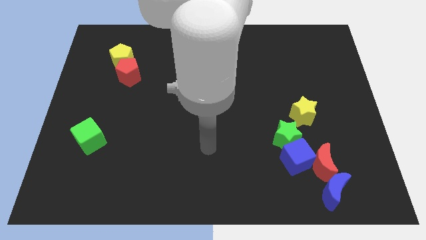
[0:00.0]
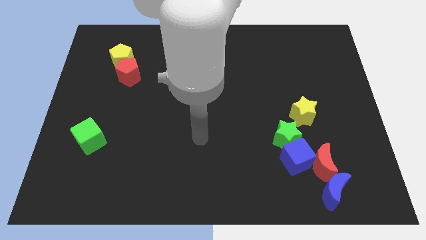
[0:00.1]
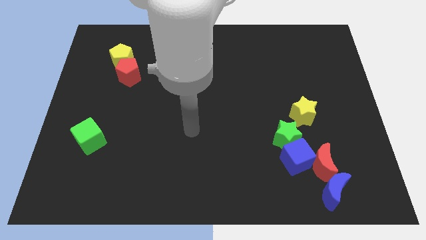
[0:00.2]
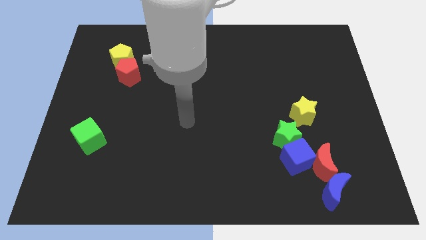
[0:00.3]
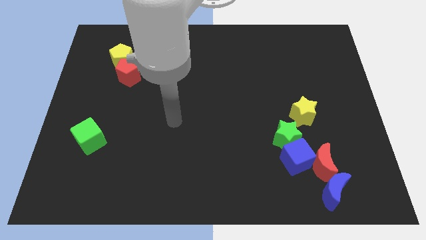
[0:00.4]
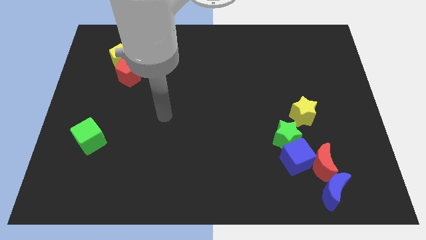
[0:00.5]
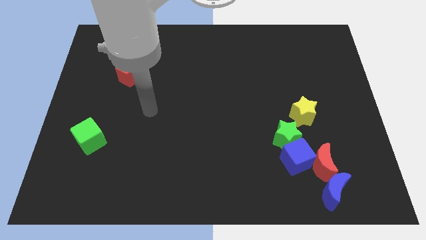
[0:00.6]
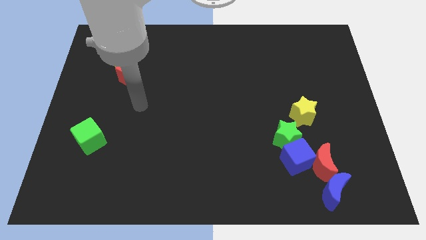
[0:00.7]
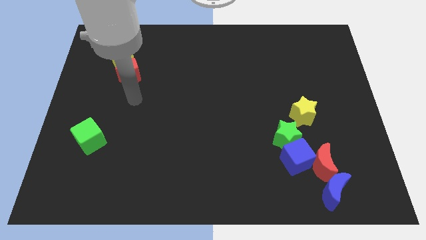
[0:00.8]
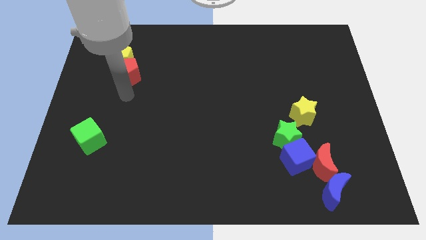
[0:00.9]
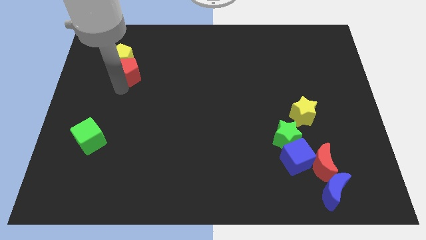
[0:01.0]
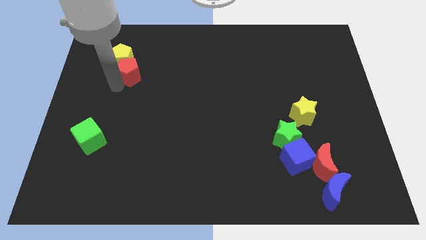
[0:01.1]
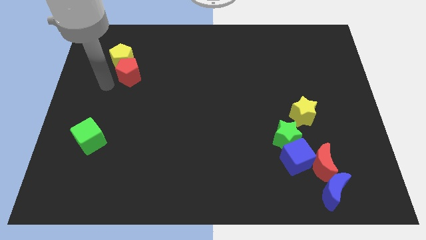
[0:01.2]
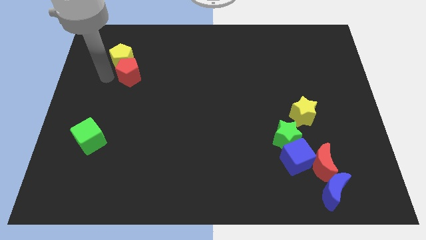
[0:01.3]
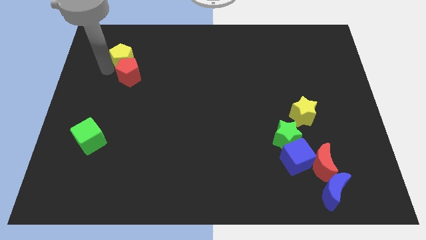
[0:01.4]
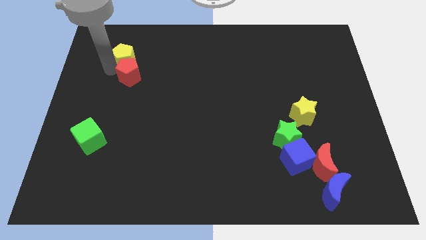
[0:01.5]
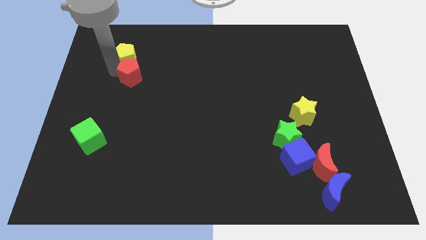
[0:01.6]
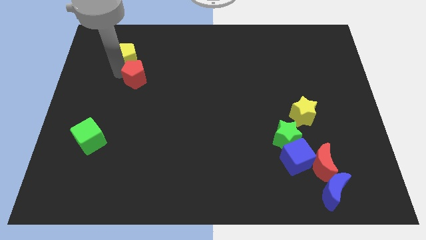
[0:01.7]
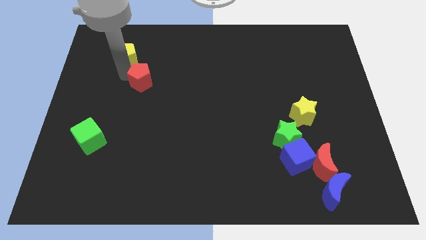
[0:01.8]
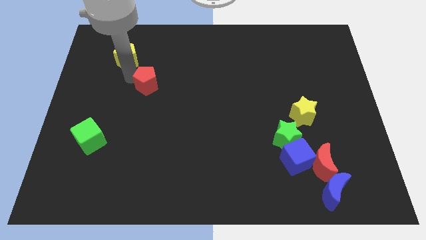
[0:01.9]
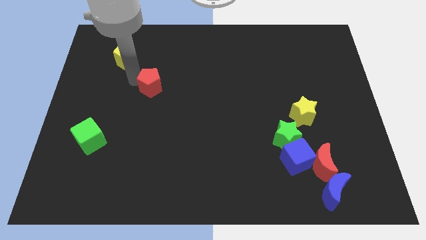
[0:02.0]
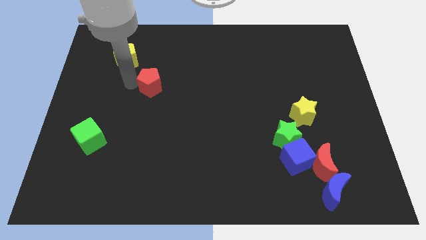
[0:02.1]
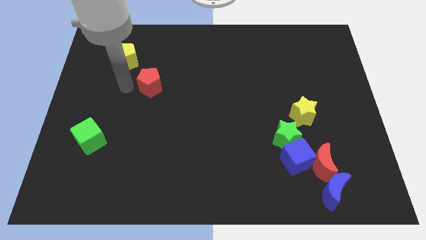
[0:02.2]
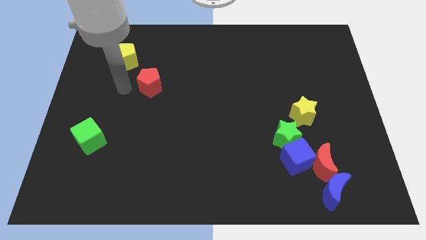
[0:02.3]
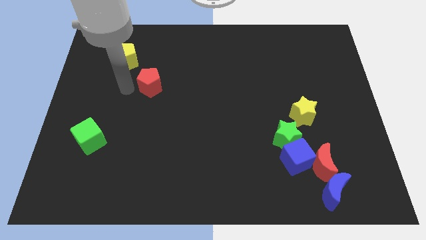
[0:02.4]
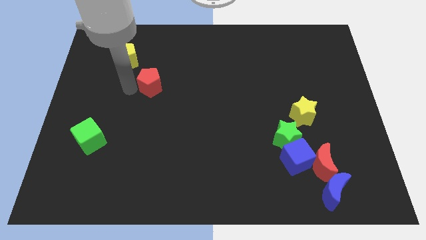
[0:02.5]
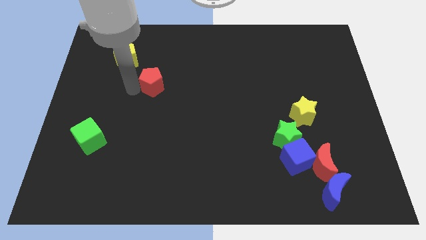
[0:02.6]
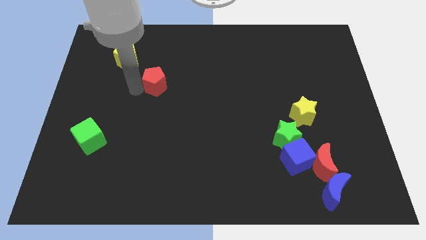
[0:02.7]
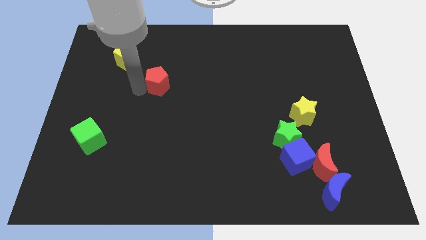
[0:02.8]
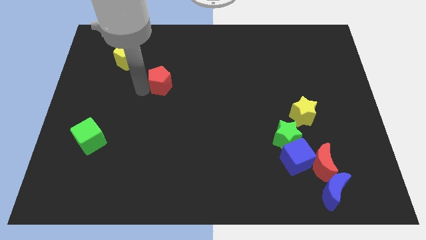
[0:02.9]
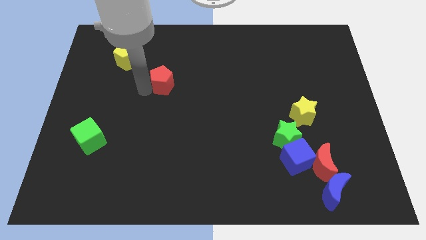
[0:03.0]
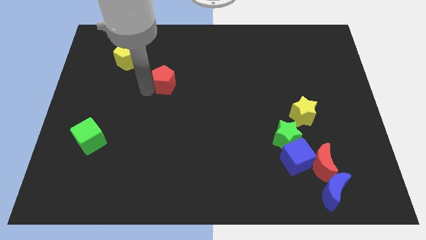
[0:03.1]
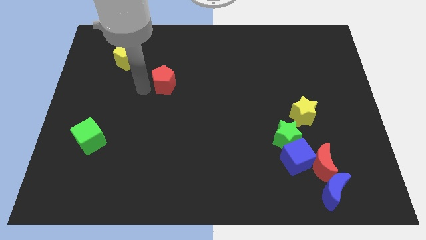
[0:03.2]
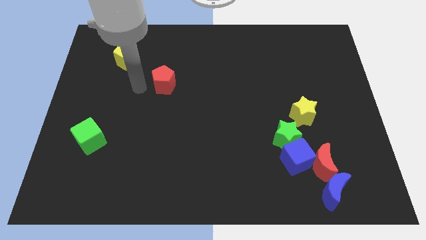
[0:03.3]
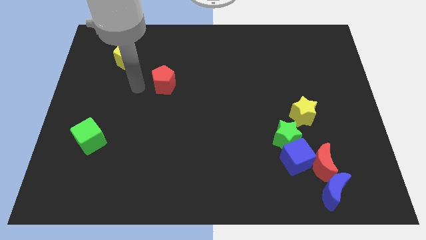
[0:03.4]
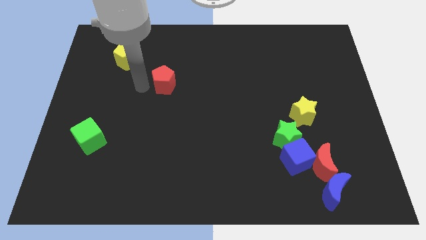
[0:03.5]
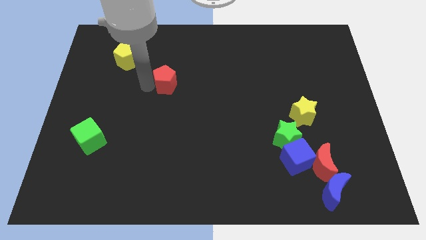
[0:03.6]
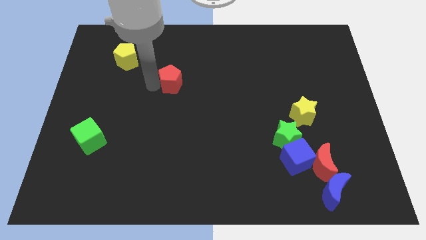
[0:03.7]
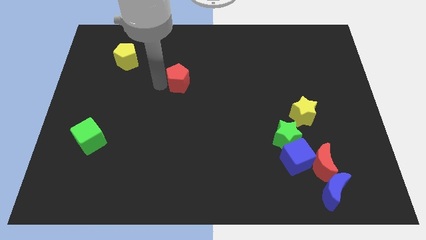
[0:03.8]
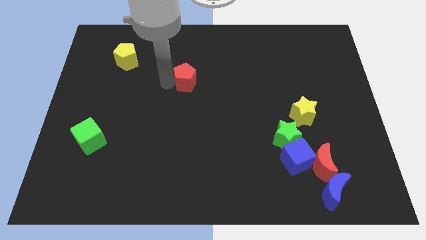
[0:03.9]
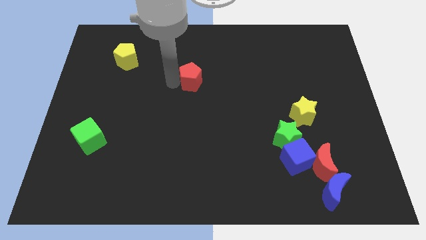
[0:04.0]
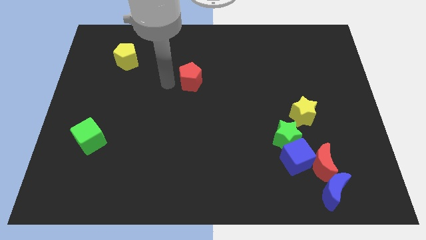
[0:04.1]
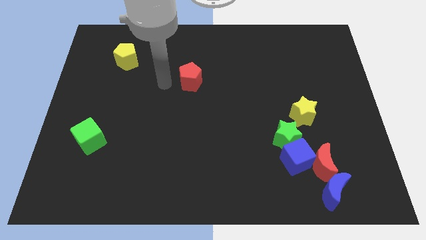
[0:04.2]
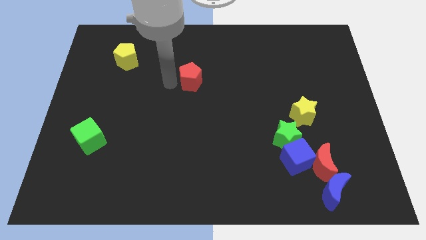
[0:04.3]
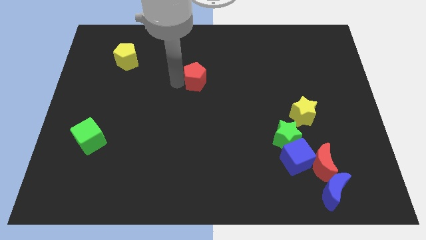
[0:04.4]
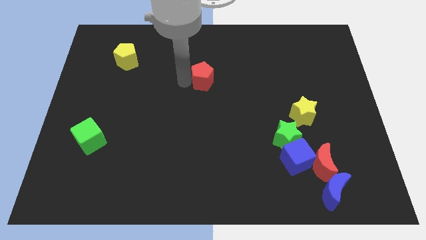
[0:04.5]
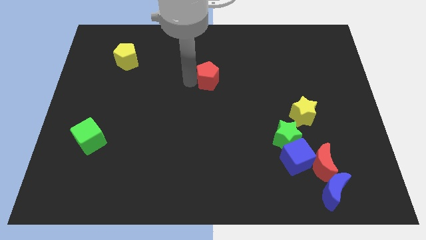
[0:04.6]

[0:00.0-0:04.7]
push the red pentagon right

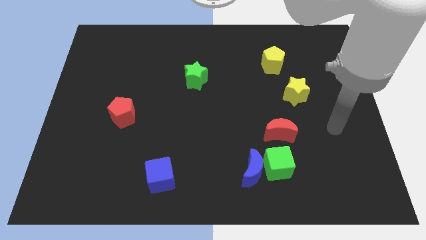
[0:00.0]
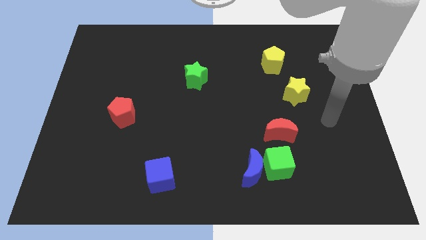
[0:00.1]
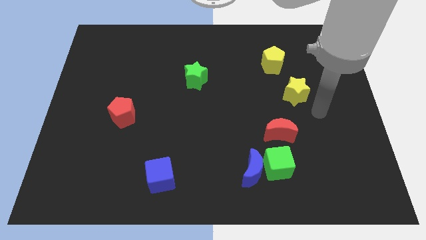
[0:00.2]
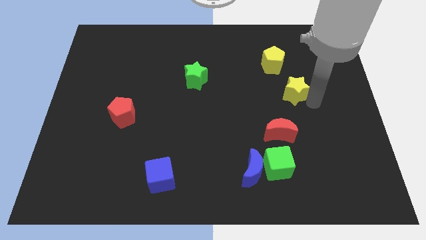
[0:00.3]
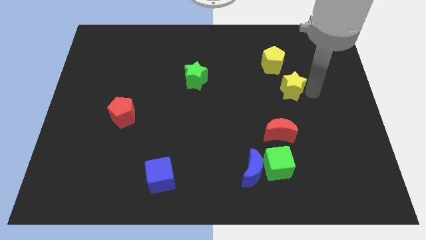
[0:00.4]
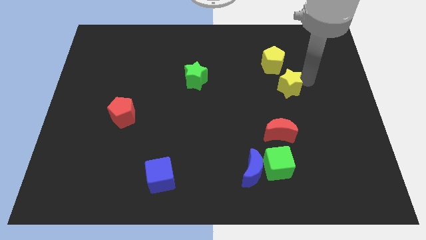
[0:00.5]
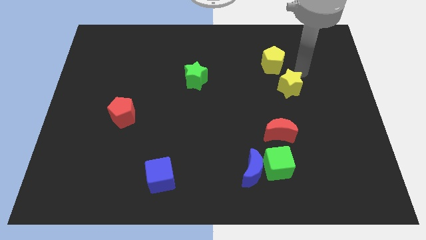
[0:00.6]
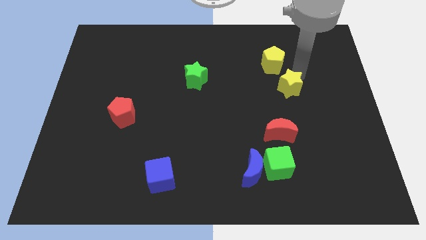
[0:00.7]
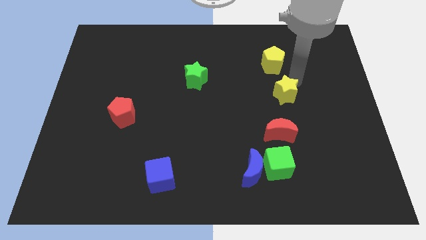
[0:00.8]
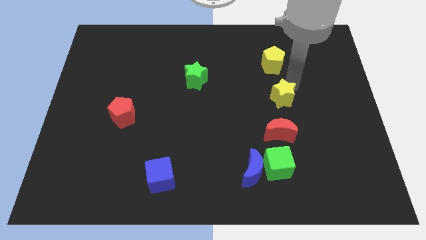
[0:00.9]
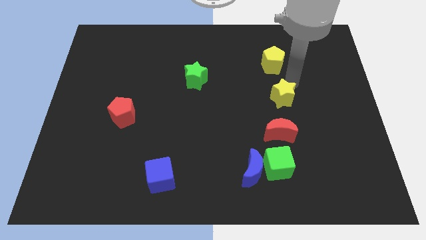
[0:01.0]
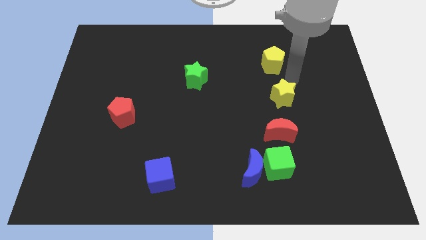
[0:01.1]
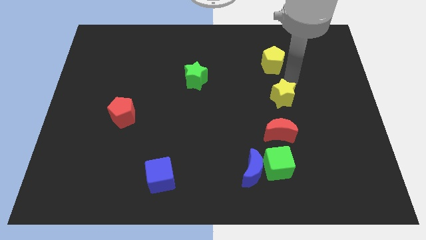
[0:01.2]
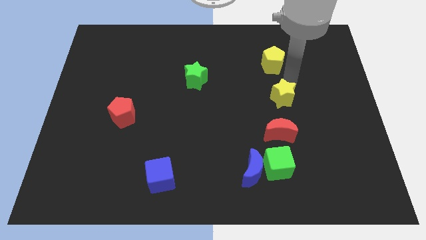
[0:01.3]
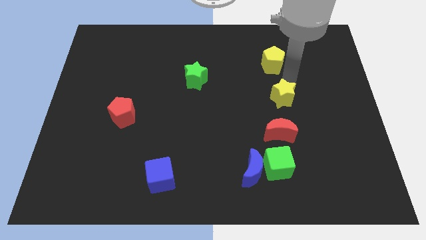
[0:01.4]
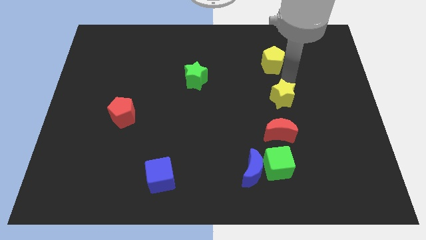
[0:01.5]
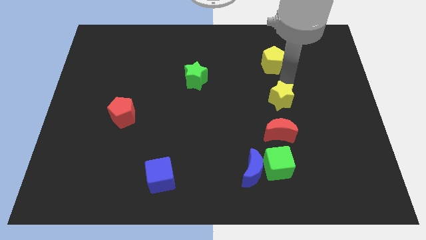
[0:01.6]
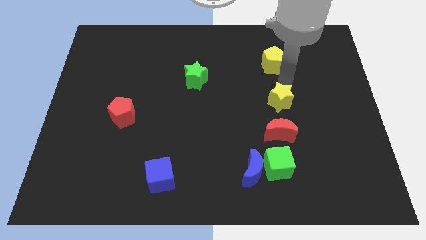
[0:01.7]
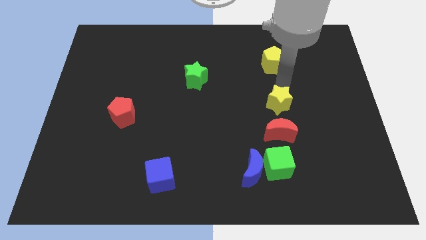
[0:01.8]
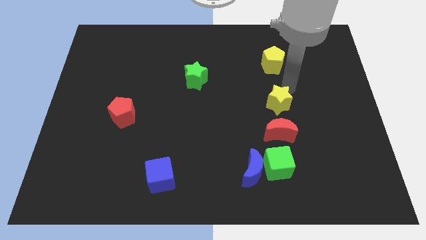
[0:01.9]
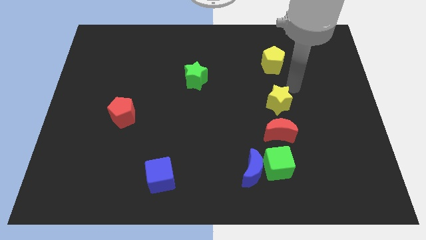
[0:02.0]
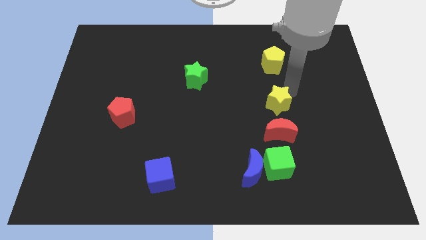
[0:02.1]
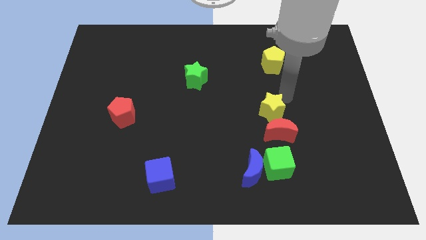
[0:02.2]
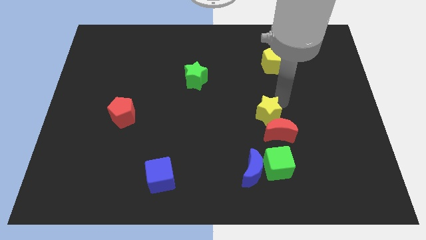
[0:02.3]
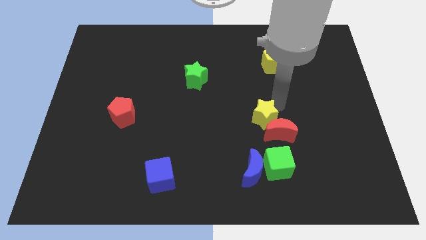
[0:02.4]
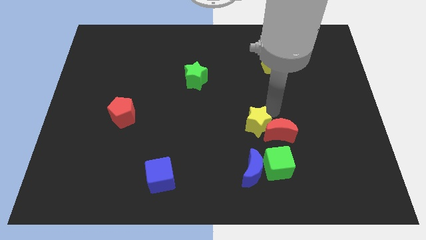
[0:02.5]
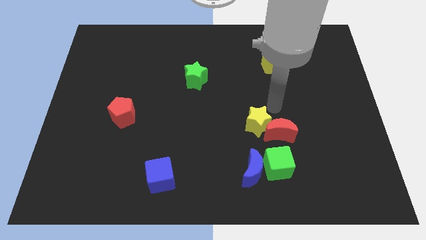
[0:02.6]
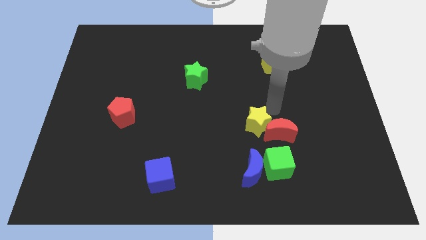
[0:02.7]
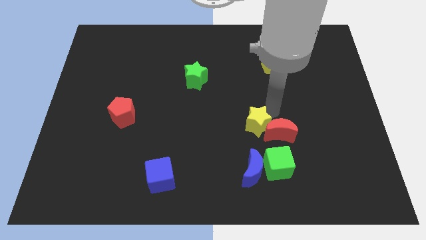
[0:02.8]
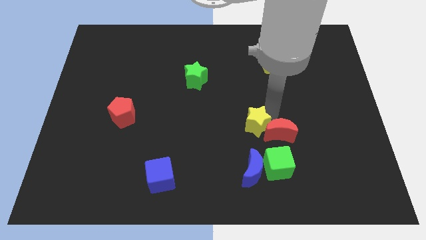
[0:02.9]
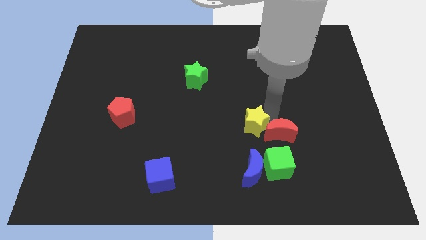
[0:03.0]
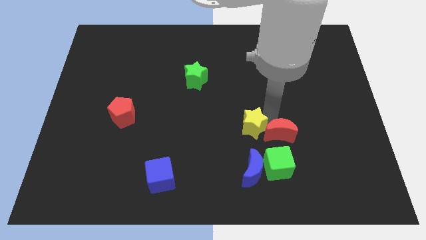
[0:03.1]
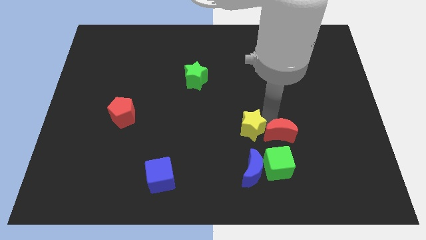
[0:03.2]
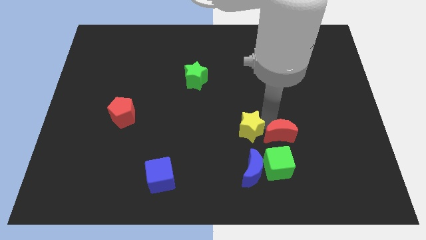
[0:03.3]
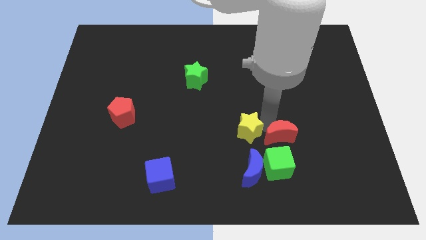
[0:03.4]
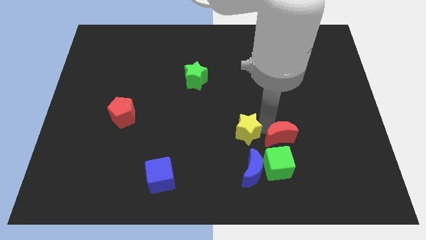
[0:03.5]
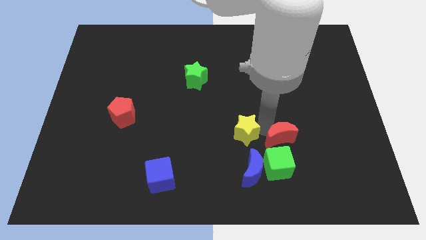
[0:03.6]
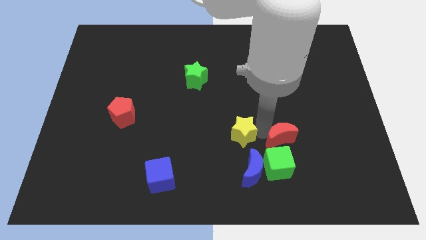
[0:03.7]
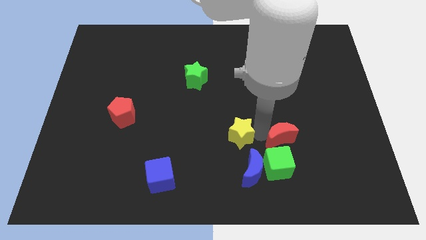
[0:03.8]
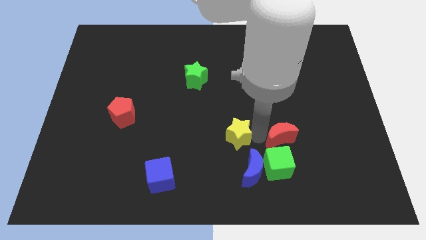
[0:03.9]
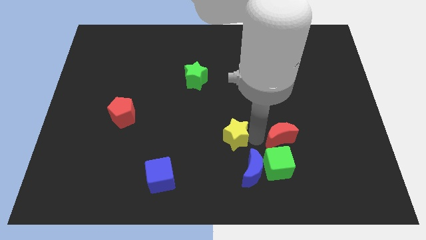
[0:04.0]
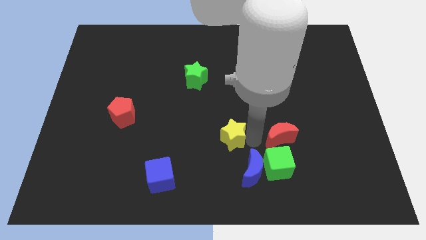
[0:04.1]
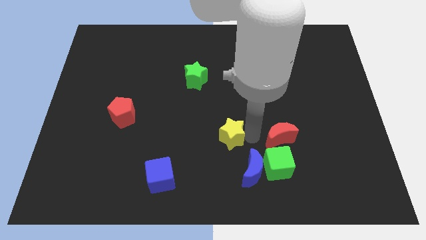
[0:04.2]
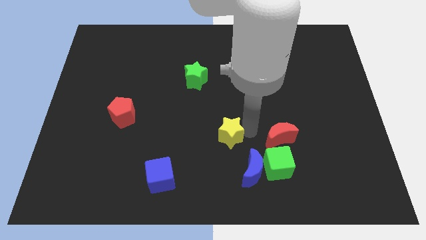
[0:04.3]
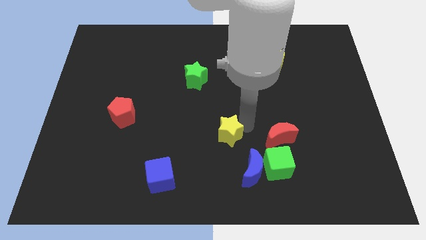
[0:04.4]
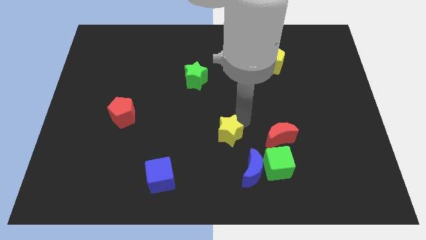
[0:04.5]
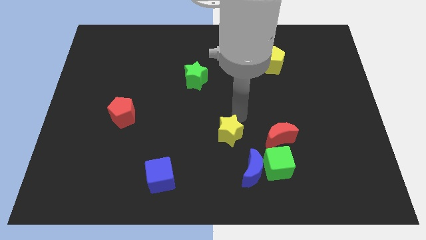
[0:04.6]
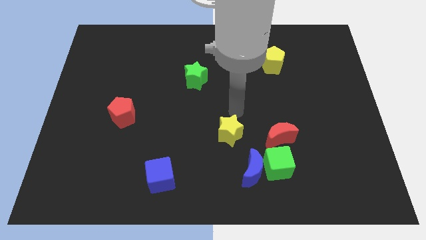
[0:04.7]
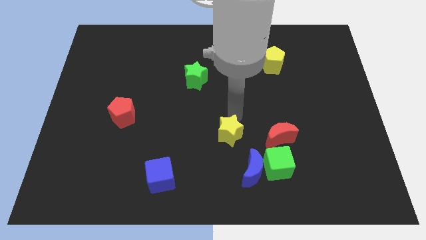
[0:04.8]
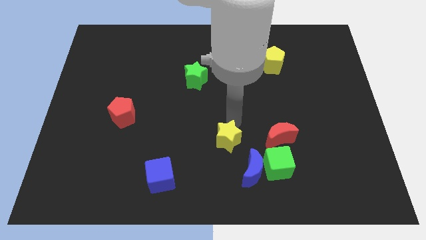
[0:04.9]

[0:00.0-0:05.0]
slide the yellow star down and left diagonally
